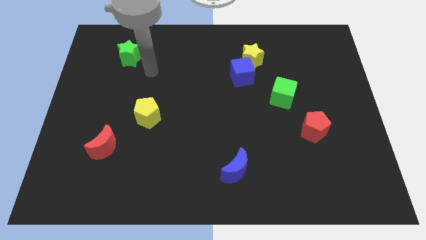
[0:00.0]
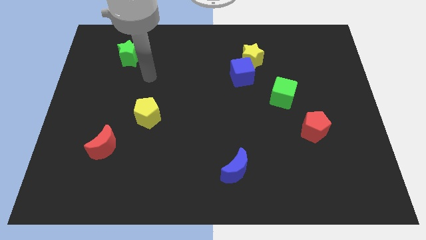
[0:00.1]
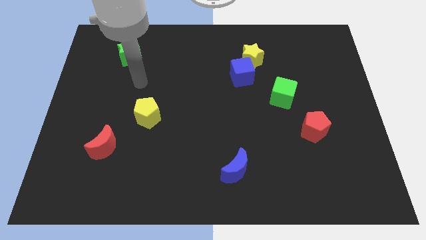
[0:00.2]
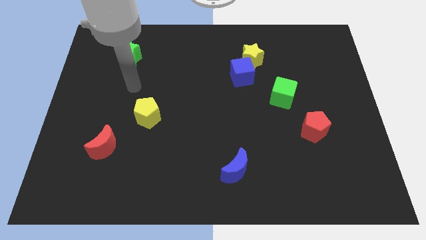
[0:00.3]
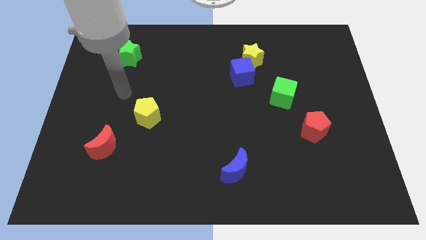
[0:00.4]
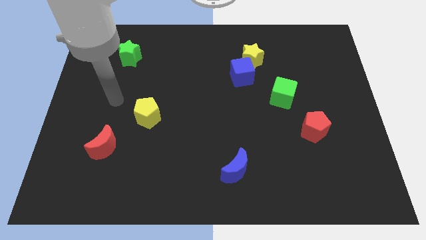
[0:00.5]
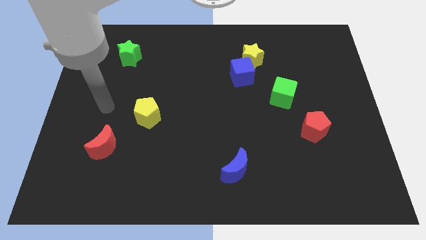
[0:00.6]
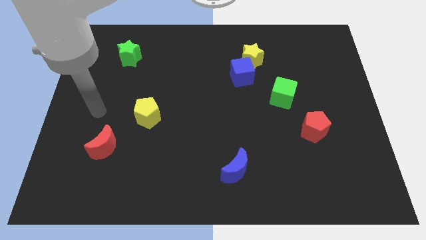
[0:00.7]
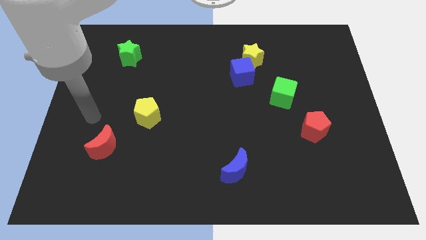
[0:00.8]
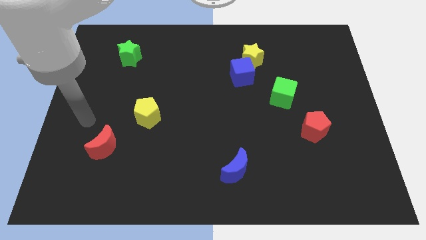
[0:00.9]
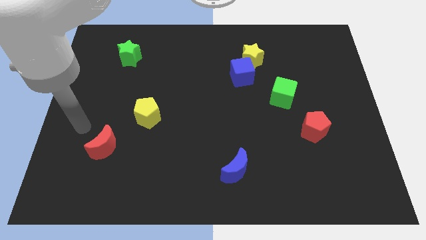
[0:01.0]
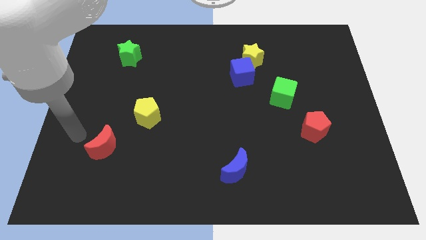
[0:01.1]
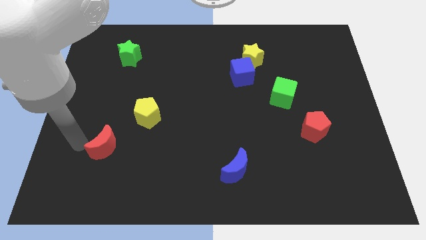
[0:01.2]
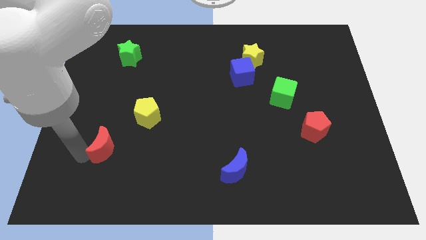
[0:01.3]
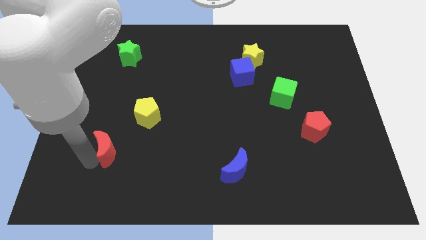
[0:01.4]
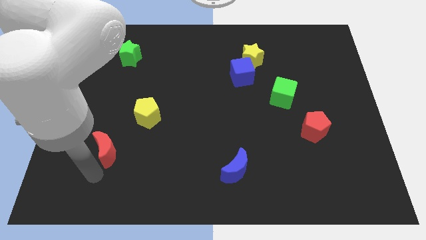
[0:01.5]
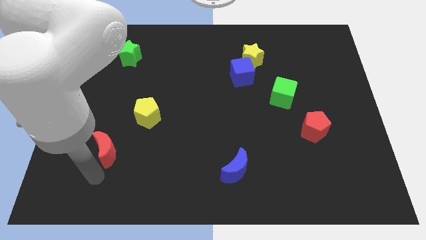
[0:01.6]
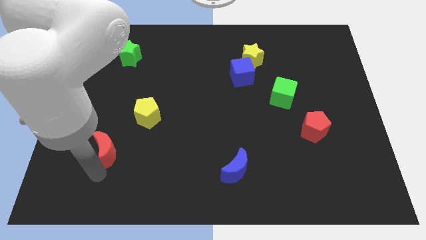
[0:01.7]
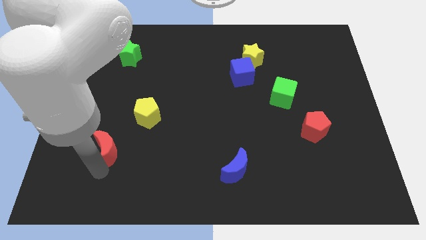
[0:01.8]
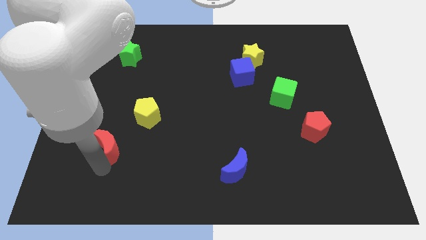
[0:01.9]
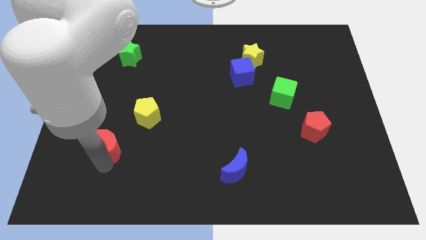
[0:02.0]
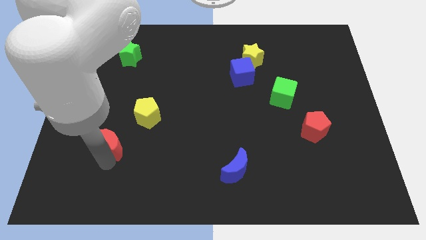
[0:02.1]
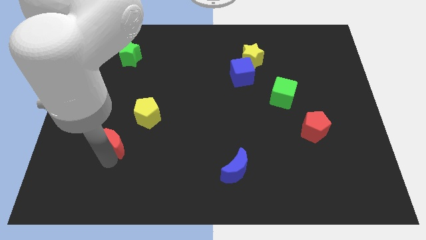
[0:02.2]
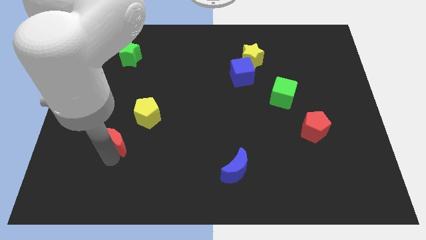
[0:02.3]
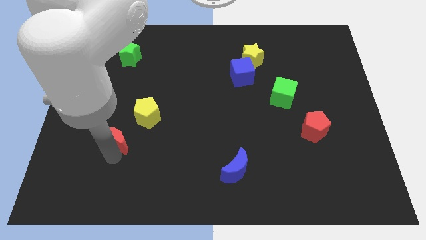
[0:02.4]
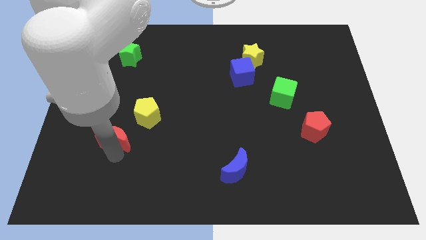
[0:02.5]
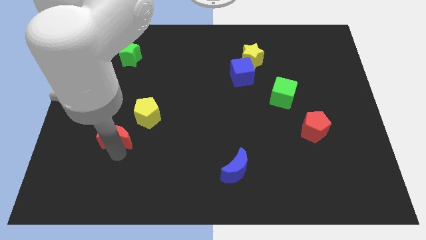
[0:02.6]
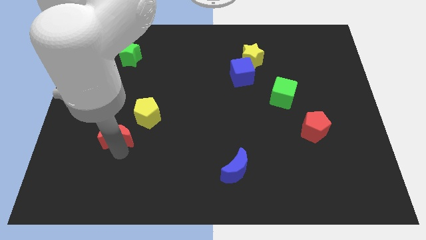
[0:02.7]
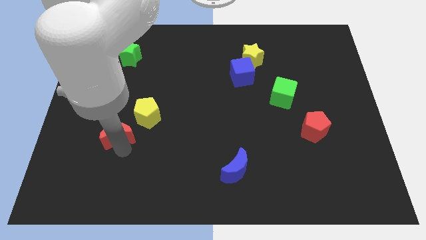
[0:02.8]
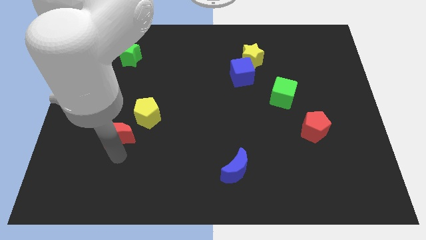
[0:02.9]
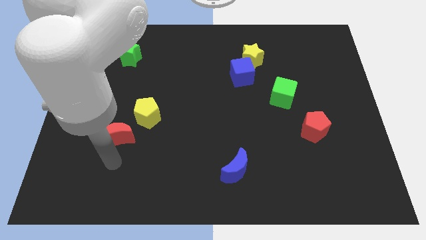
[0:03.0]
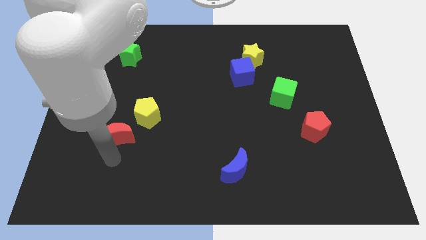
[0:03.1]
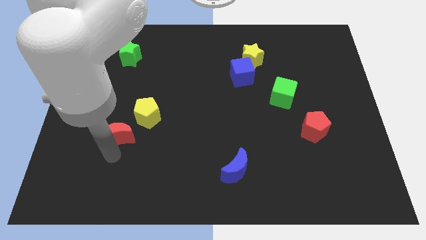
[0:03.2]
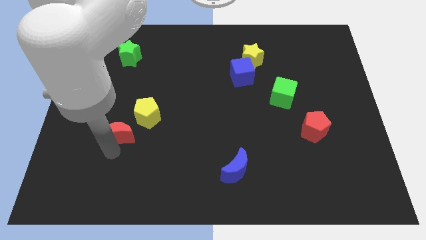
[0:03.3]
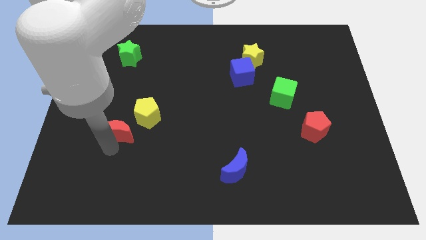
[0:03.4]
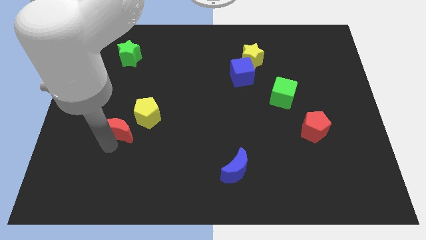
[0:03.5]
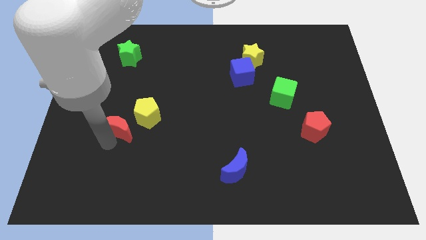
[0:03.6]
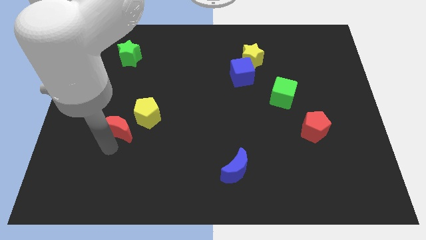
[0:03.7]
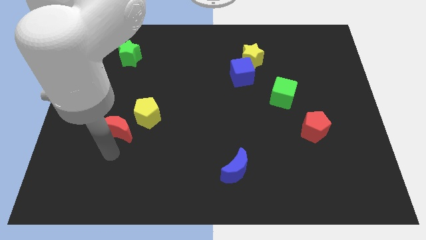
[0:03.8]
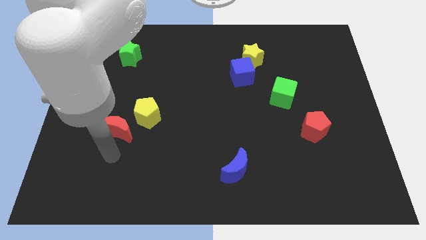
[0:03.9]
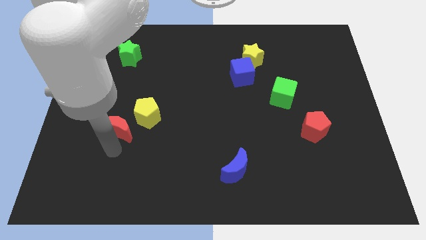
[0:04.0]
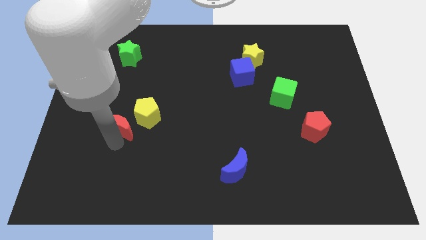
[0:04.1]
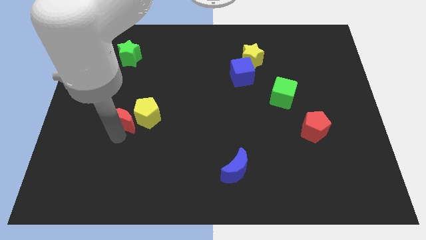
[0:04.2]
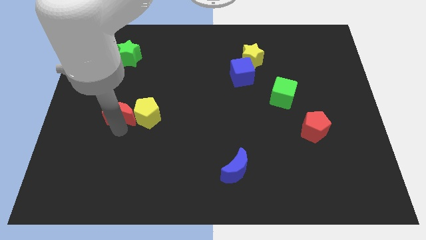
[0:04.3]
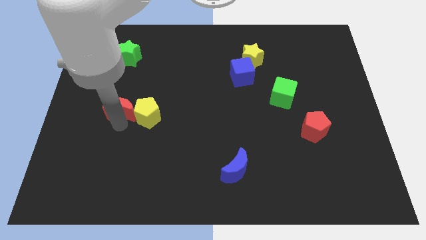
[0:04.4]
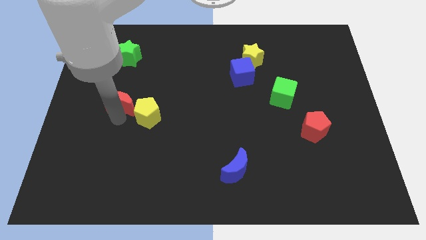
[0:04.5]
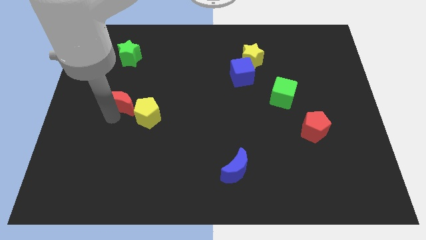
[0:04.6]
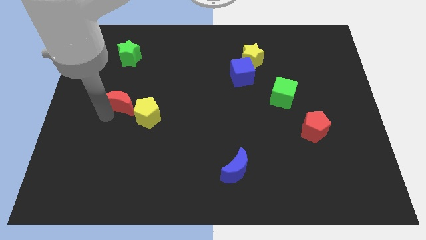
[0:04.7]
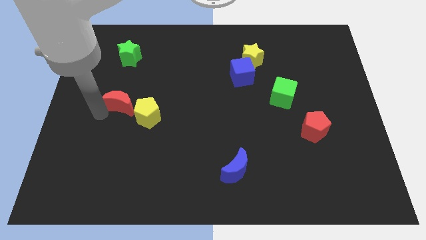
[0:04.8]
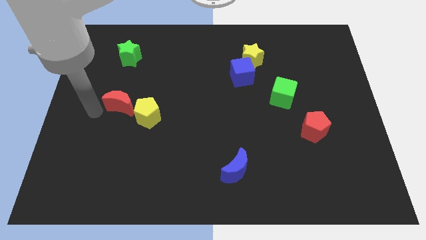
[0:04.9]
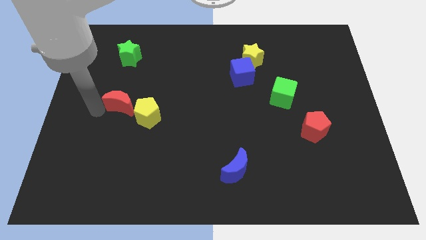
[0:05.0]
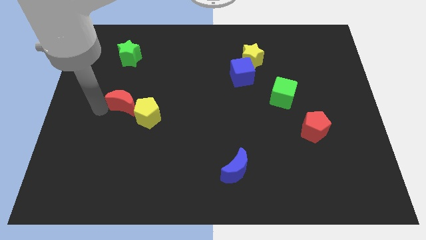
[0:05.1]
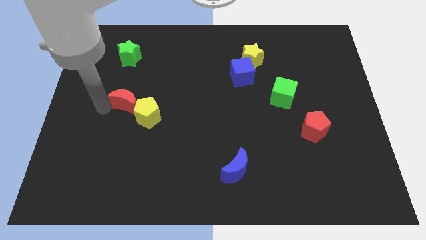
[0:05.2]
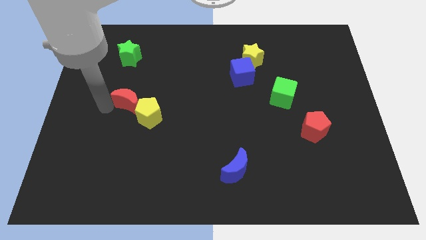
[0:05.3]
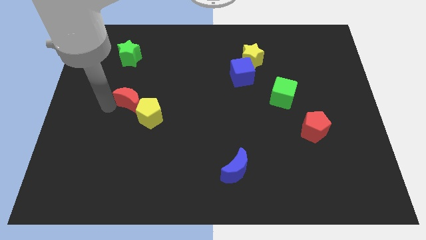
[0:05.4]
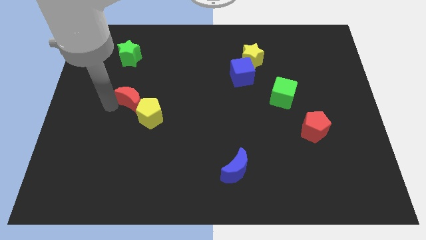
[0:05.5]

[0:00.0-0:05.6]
move the red moon to the top side of the yellow pentagon

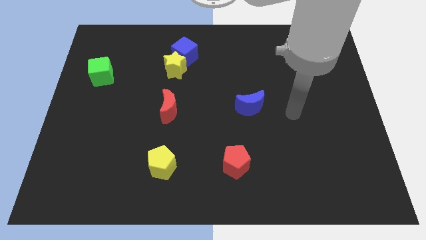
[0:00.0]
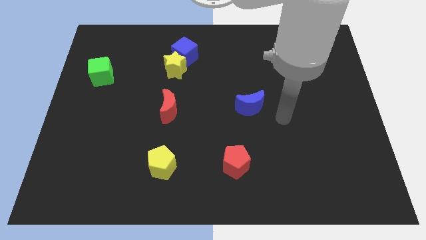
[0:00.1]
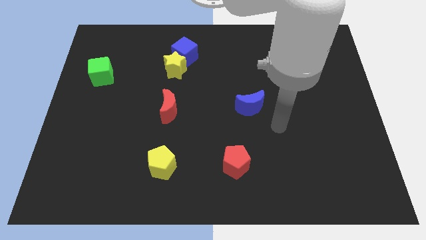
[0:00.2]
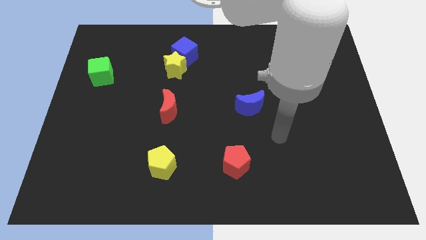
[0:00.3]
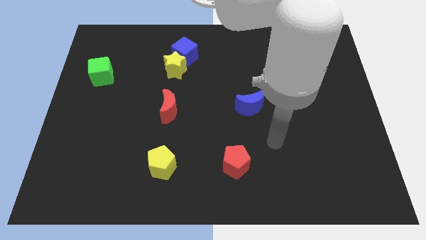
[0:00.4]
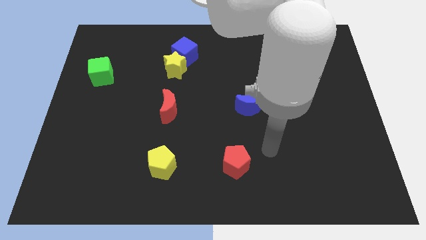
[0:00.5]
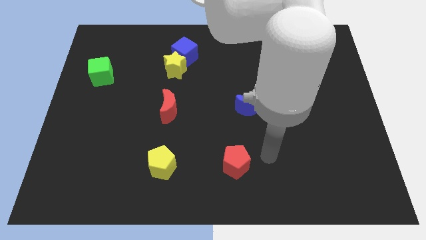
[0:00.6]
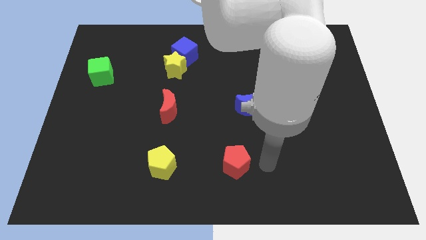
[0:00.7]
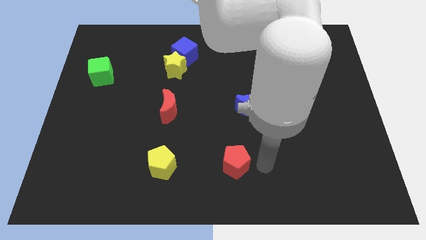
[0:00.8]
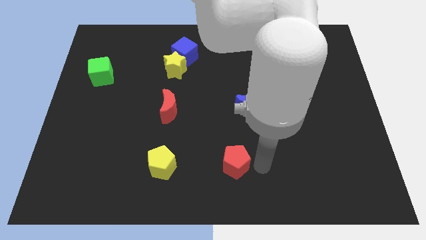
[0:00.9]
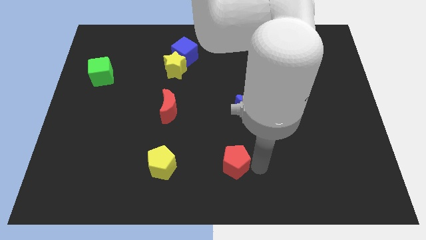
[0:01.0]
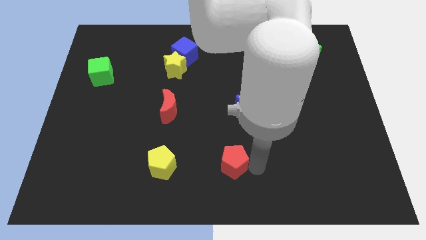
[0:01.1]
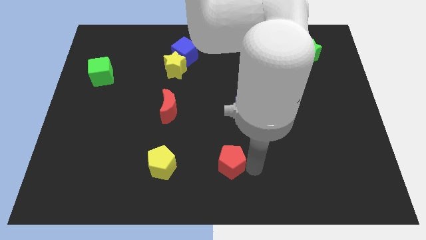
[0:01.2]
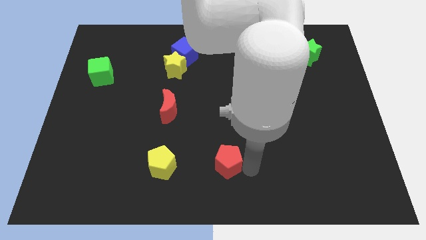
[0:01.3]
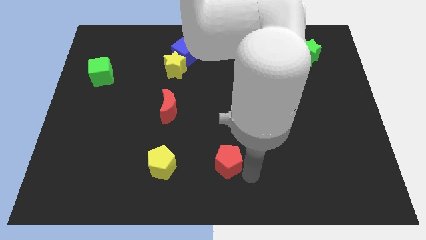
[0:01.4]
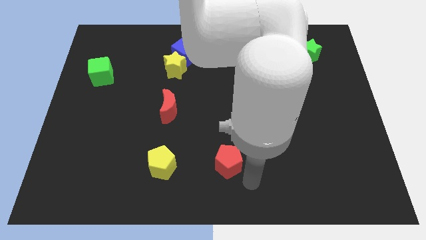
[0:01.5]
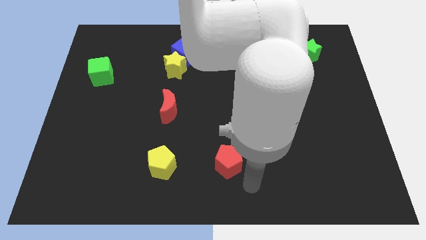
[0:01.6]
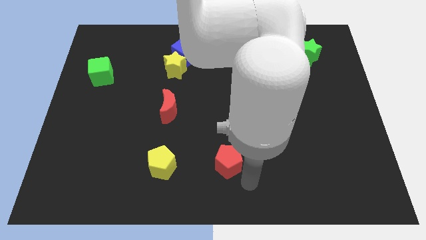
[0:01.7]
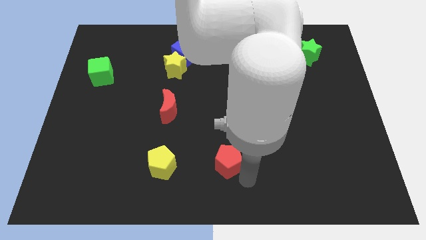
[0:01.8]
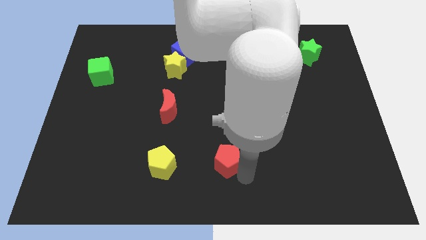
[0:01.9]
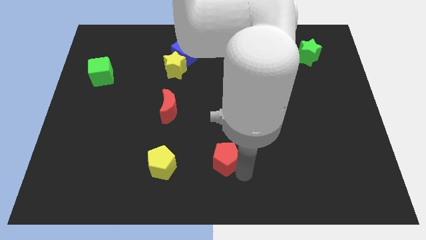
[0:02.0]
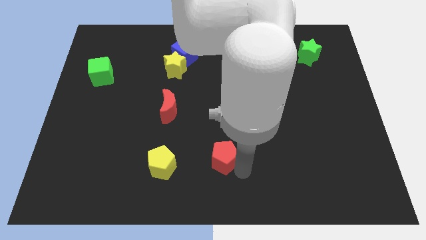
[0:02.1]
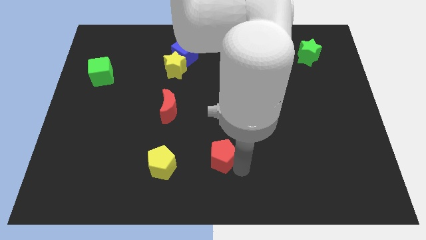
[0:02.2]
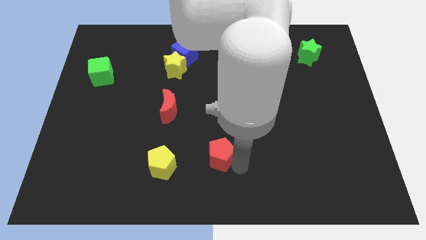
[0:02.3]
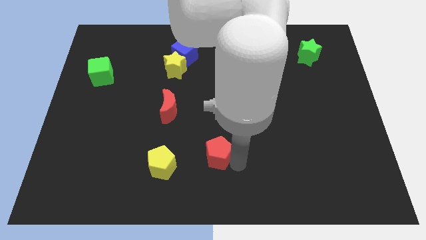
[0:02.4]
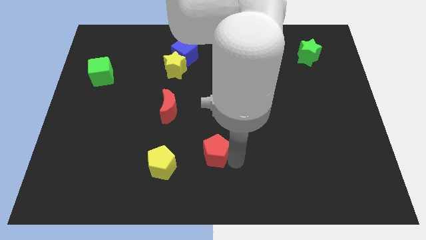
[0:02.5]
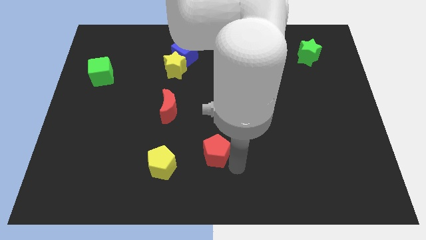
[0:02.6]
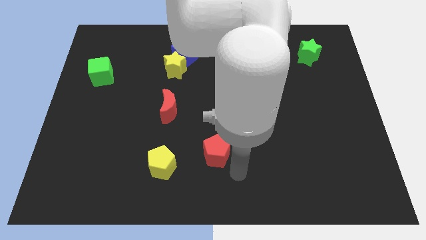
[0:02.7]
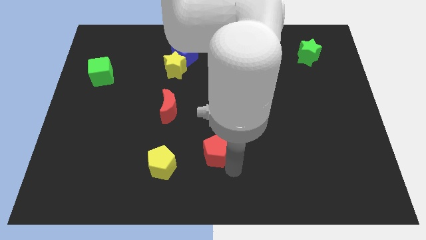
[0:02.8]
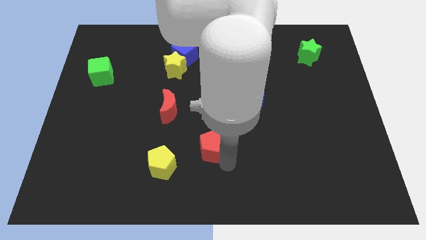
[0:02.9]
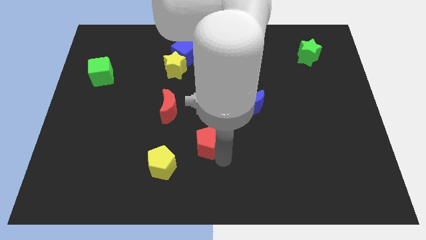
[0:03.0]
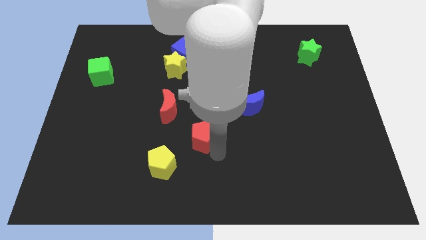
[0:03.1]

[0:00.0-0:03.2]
push the red pentagon to the bottom right side of the red moon
